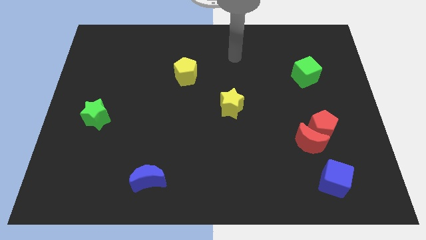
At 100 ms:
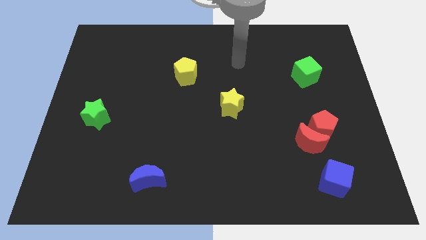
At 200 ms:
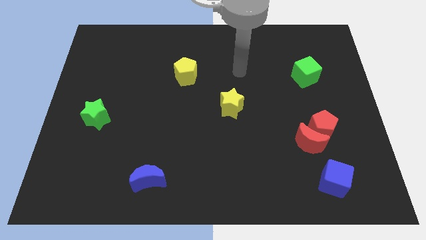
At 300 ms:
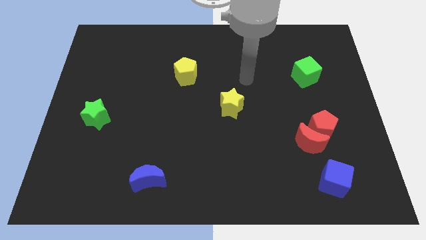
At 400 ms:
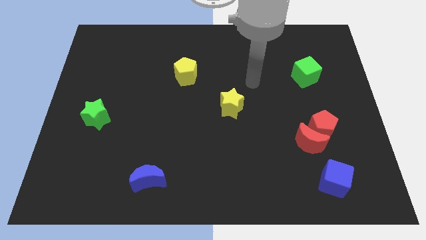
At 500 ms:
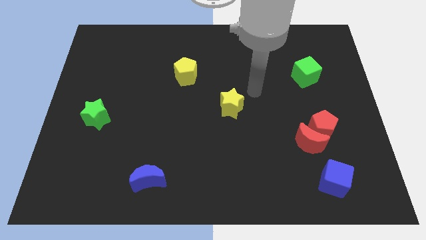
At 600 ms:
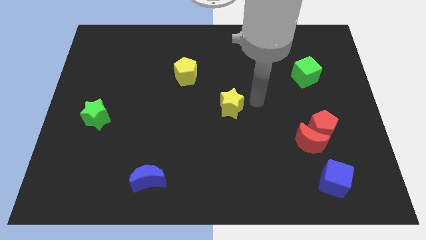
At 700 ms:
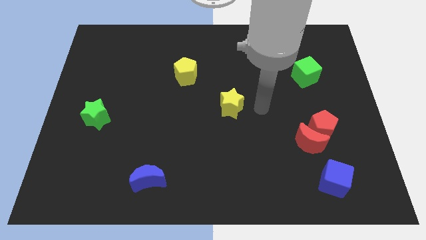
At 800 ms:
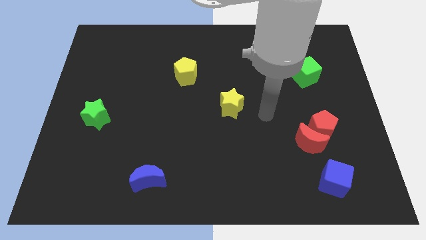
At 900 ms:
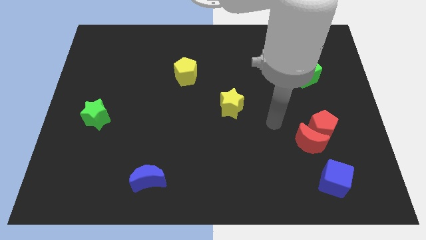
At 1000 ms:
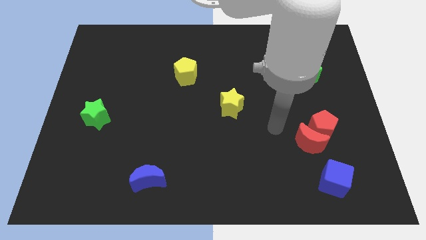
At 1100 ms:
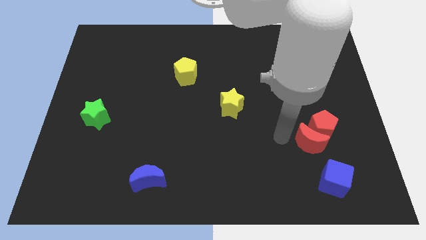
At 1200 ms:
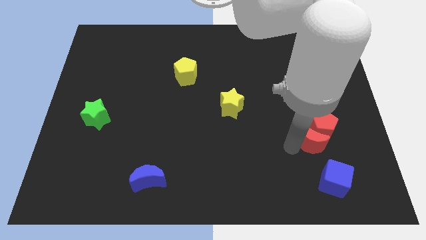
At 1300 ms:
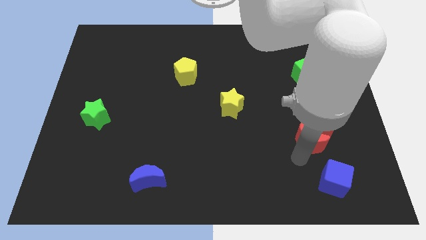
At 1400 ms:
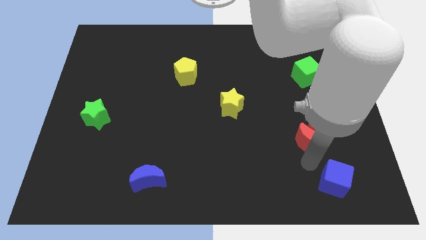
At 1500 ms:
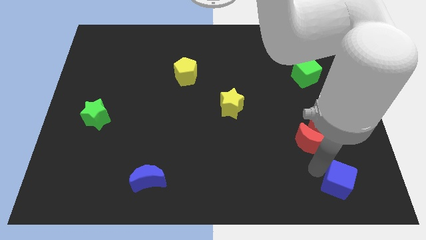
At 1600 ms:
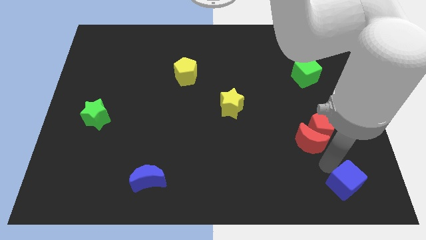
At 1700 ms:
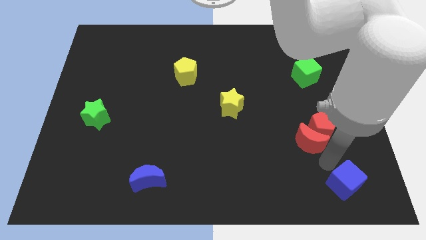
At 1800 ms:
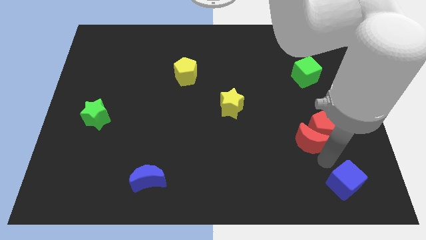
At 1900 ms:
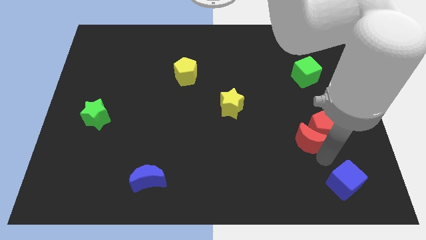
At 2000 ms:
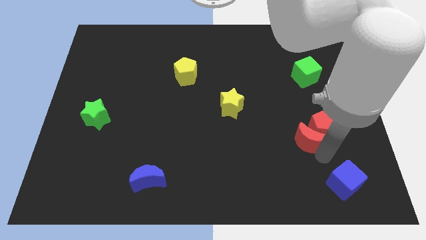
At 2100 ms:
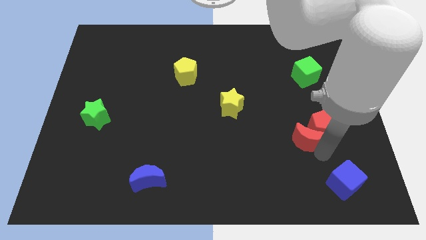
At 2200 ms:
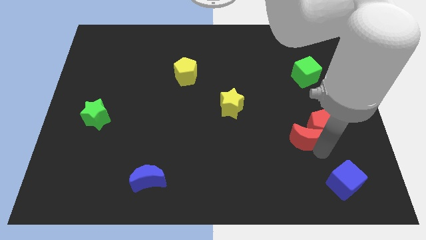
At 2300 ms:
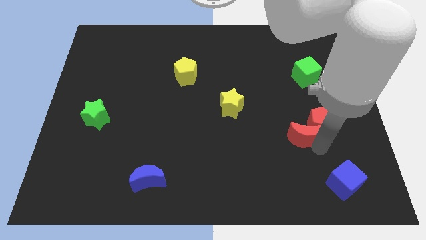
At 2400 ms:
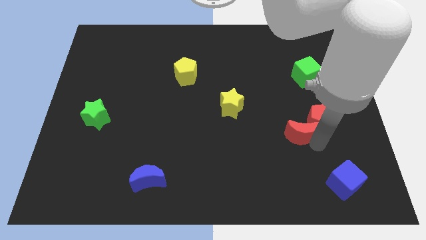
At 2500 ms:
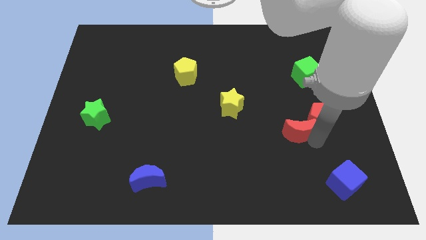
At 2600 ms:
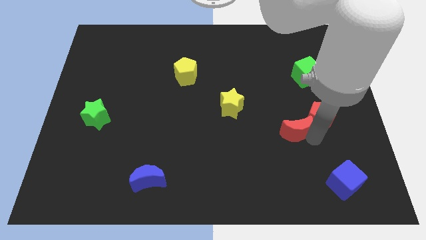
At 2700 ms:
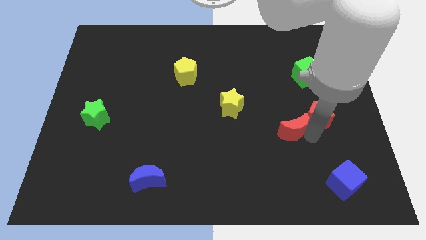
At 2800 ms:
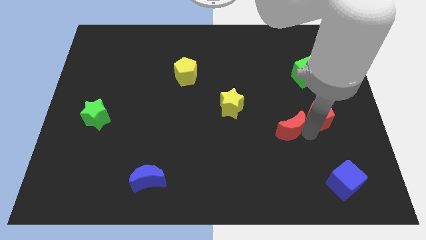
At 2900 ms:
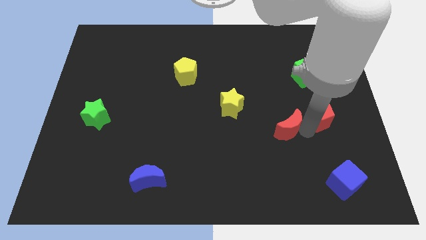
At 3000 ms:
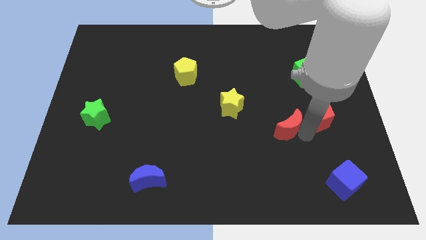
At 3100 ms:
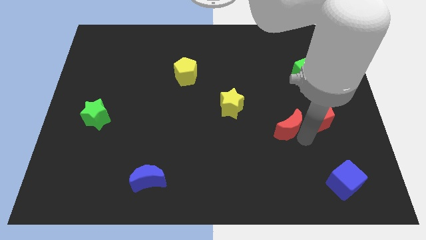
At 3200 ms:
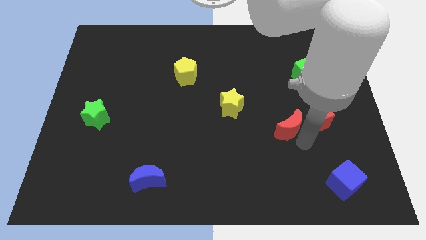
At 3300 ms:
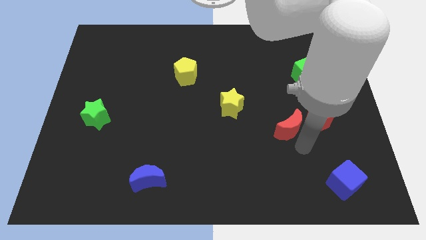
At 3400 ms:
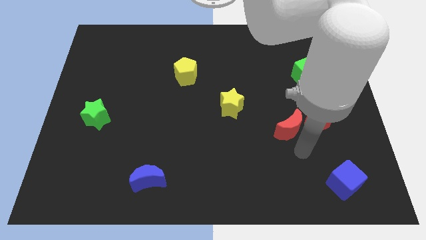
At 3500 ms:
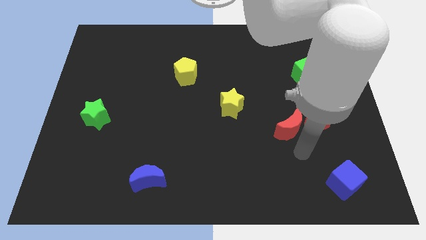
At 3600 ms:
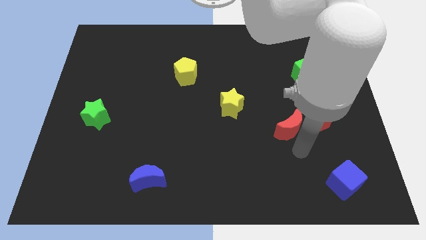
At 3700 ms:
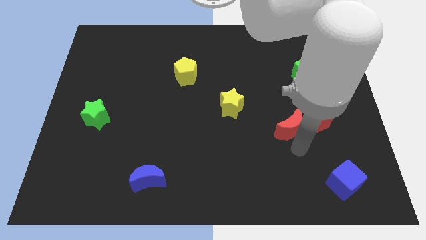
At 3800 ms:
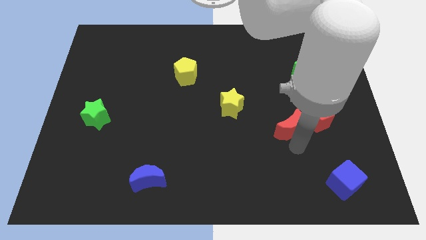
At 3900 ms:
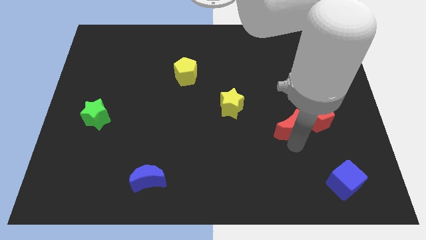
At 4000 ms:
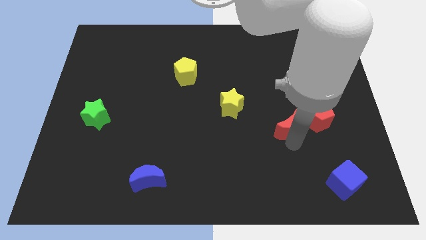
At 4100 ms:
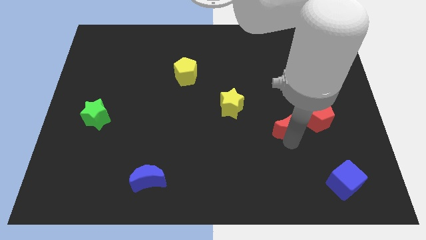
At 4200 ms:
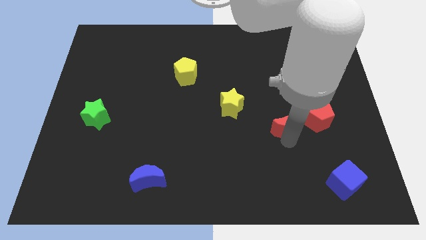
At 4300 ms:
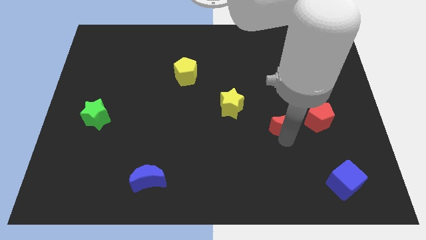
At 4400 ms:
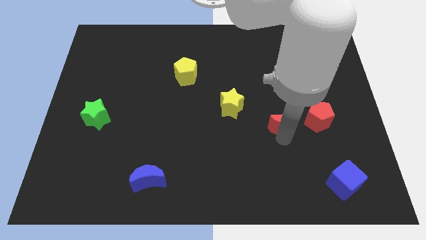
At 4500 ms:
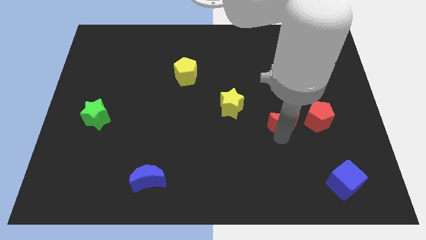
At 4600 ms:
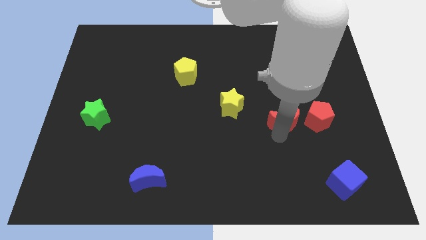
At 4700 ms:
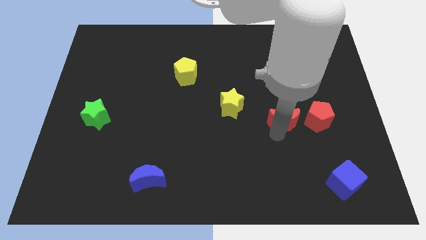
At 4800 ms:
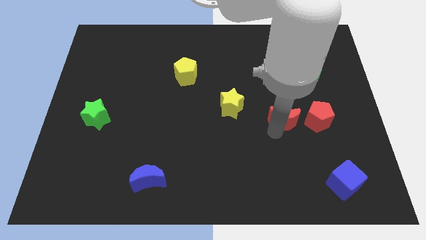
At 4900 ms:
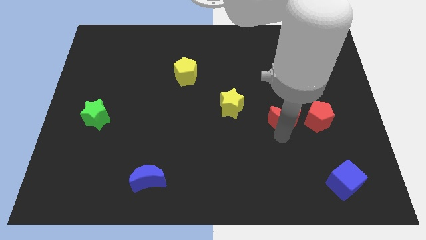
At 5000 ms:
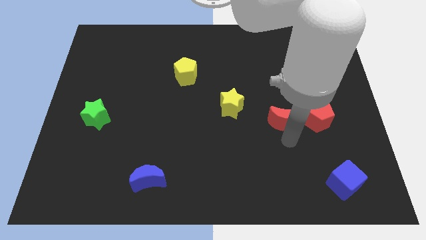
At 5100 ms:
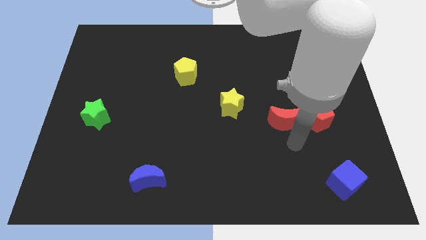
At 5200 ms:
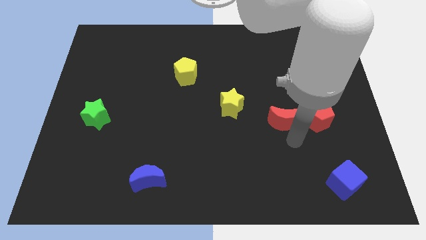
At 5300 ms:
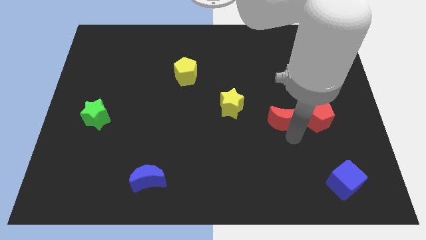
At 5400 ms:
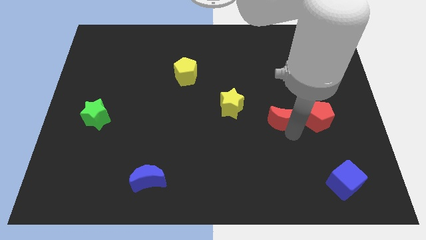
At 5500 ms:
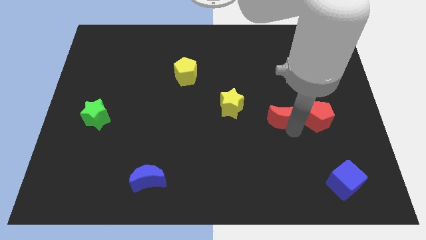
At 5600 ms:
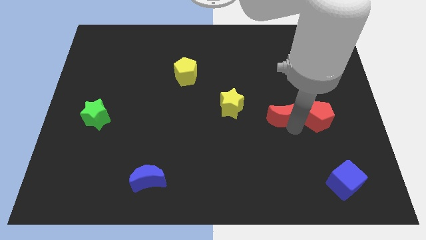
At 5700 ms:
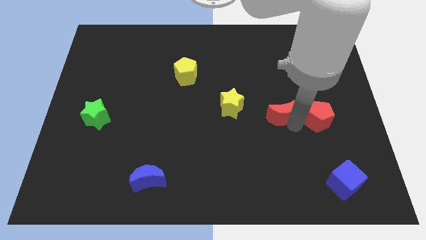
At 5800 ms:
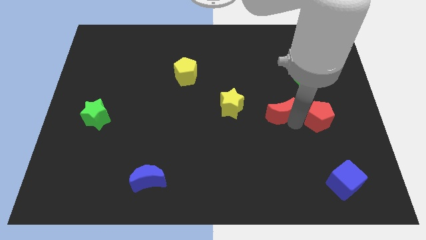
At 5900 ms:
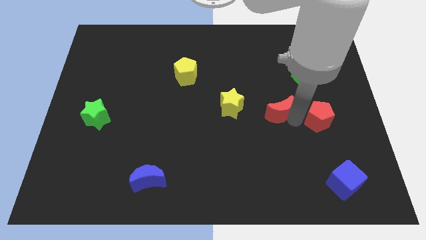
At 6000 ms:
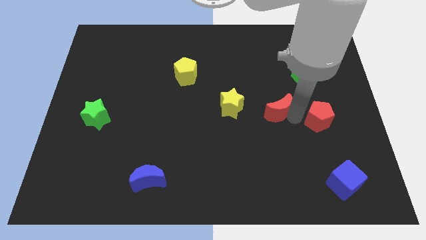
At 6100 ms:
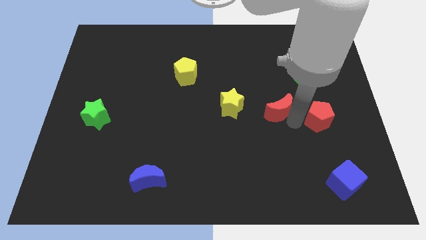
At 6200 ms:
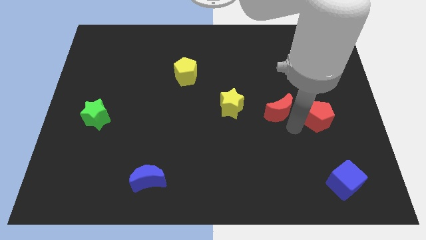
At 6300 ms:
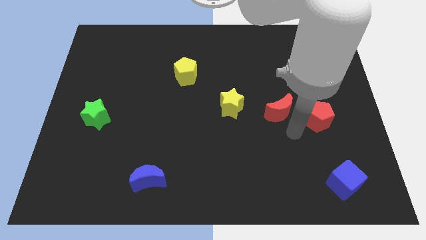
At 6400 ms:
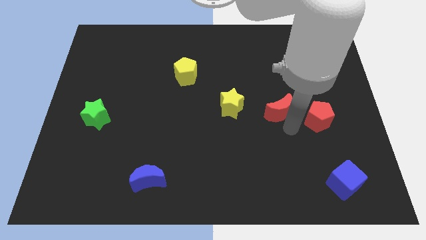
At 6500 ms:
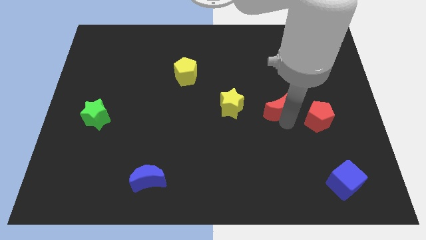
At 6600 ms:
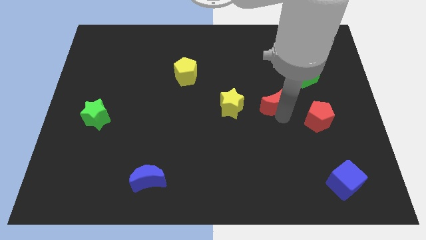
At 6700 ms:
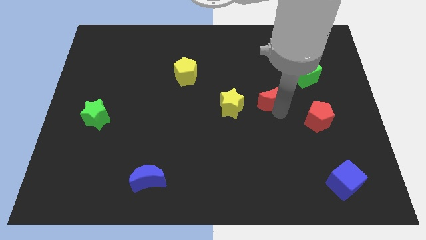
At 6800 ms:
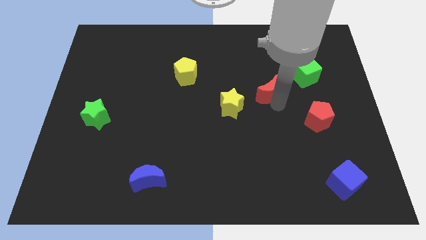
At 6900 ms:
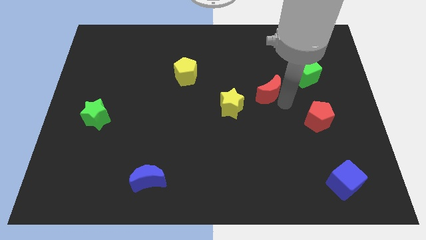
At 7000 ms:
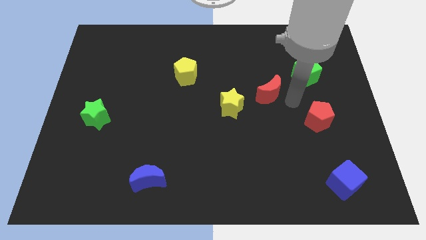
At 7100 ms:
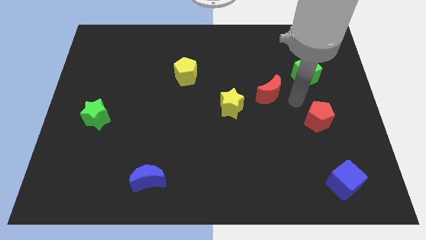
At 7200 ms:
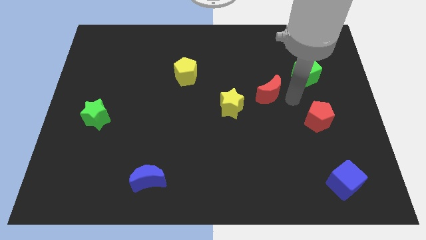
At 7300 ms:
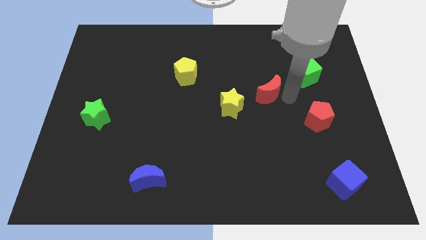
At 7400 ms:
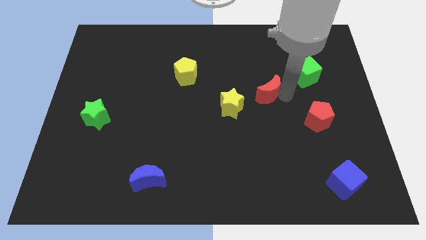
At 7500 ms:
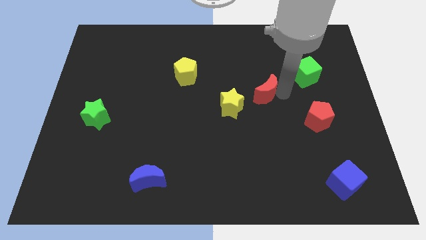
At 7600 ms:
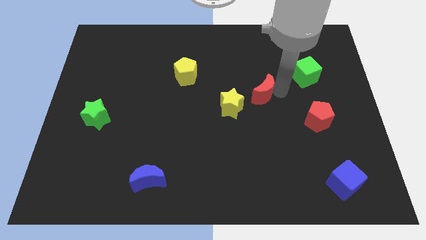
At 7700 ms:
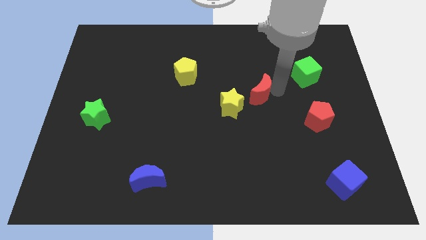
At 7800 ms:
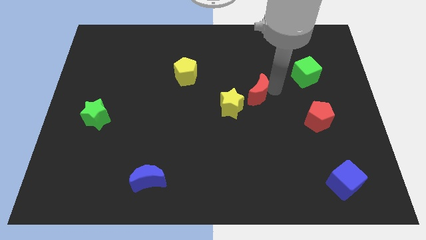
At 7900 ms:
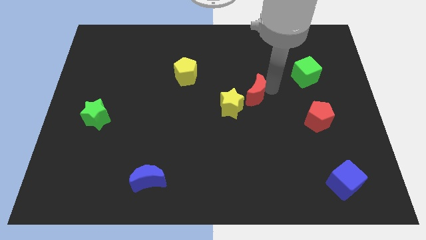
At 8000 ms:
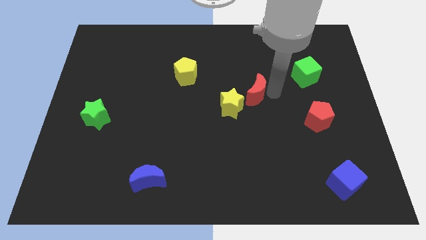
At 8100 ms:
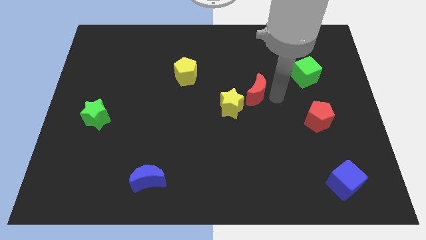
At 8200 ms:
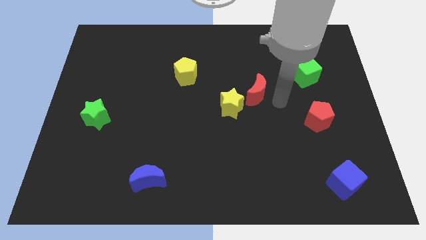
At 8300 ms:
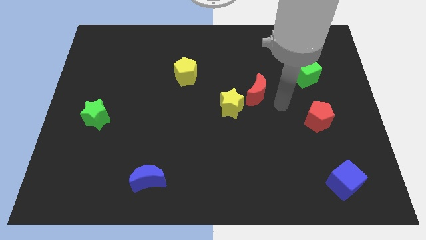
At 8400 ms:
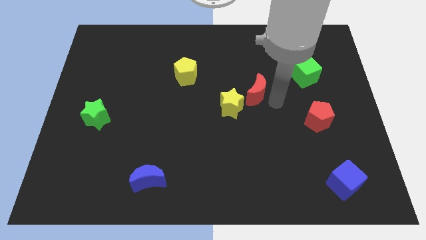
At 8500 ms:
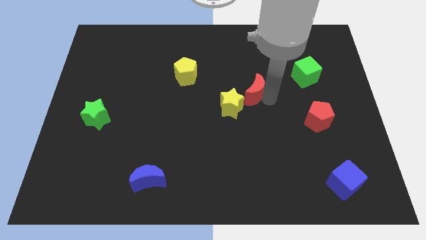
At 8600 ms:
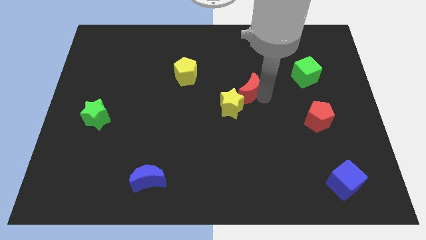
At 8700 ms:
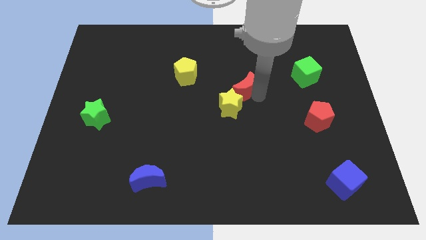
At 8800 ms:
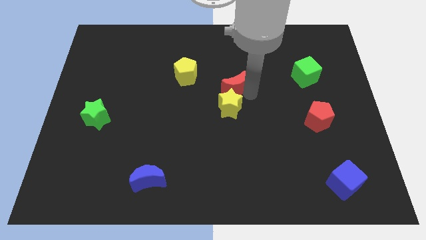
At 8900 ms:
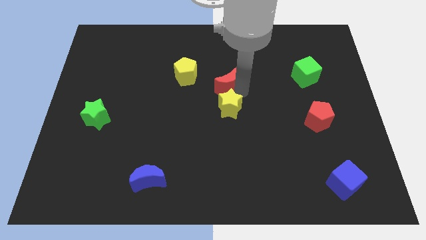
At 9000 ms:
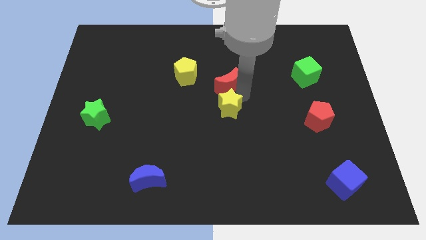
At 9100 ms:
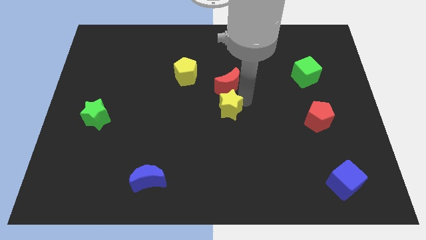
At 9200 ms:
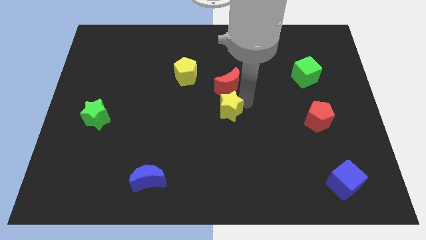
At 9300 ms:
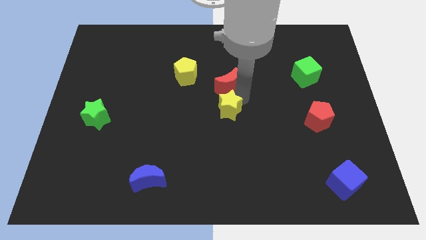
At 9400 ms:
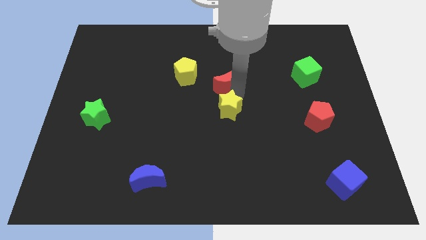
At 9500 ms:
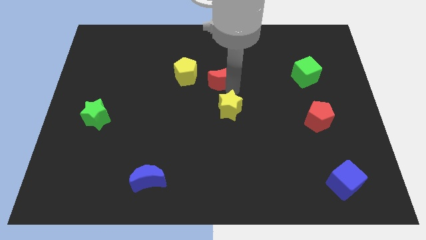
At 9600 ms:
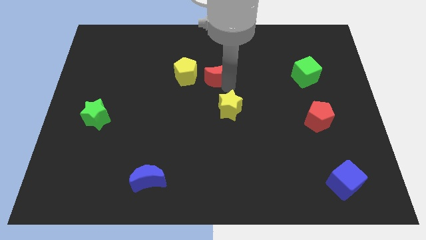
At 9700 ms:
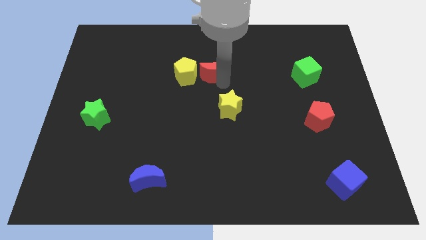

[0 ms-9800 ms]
put the red moon to the top right of the yellow pentagon
